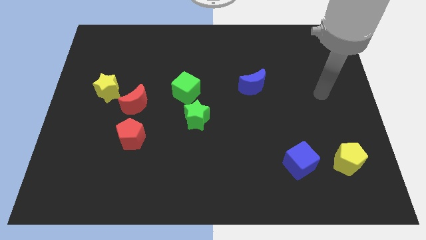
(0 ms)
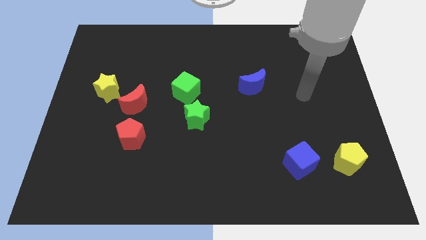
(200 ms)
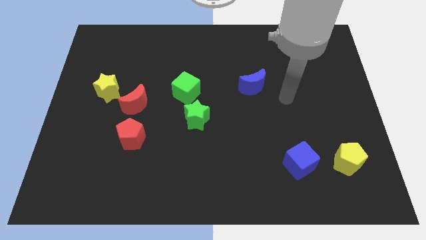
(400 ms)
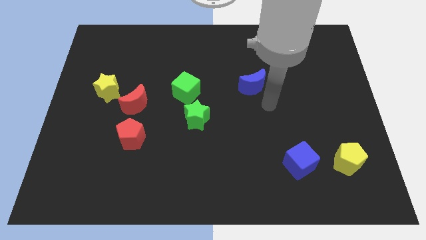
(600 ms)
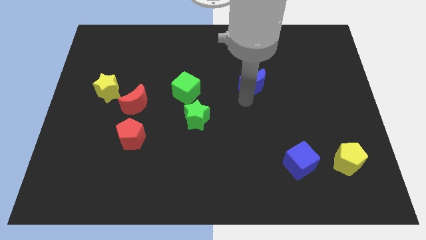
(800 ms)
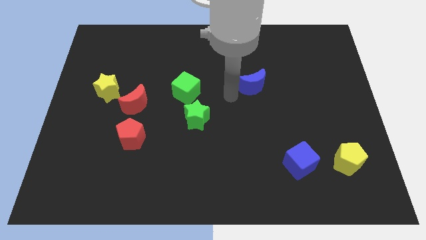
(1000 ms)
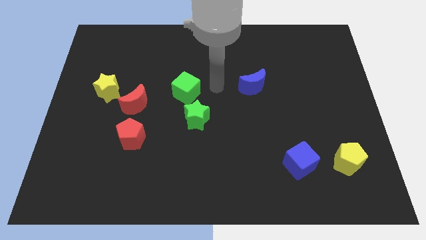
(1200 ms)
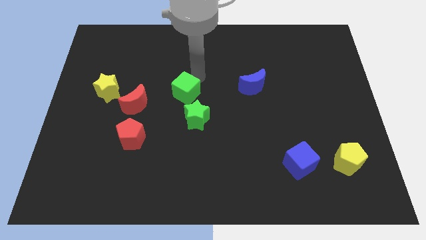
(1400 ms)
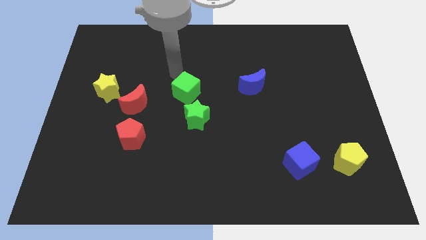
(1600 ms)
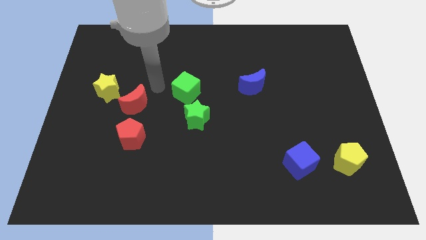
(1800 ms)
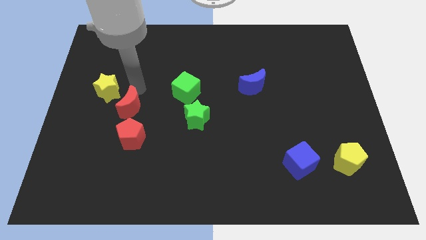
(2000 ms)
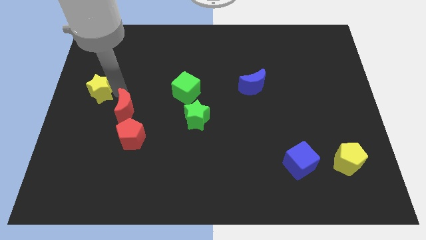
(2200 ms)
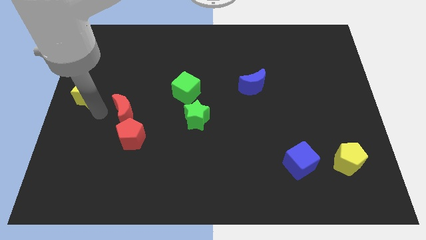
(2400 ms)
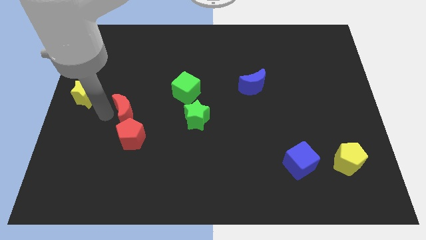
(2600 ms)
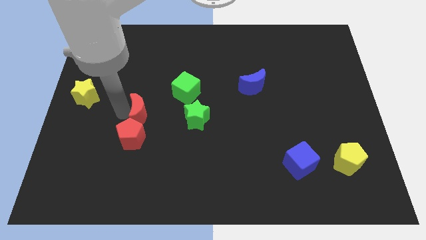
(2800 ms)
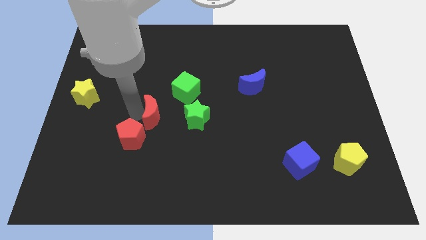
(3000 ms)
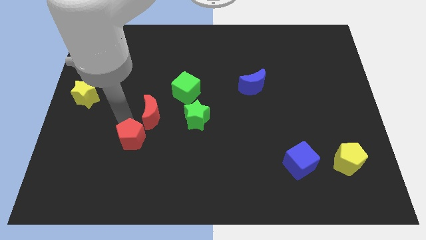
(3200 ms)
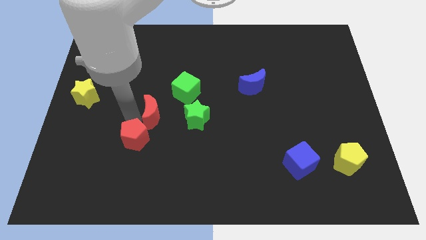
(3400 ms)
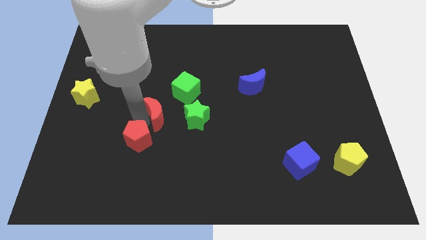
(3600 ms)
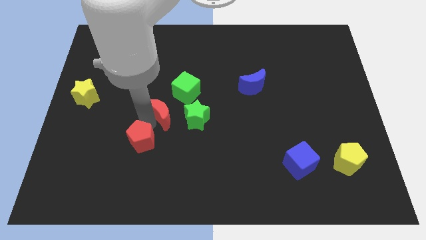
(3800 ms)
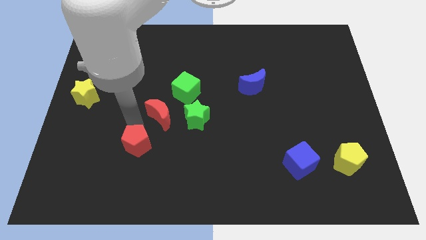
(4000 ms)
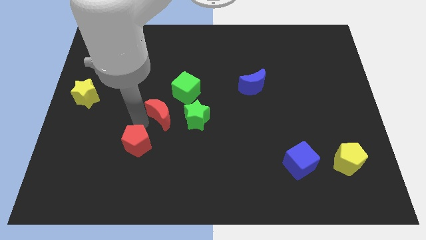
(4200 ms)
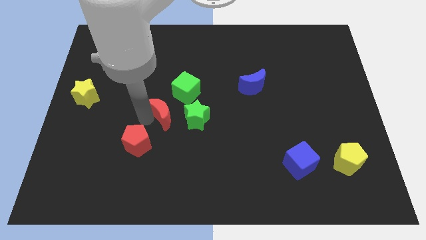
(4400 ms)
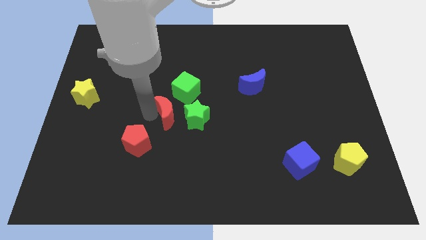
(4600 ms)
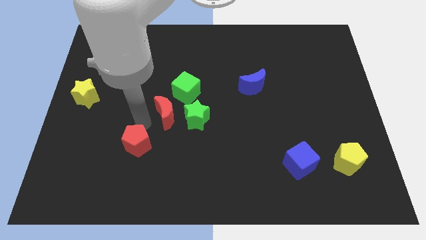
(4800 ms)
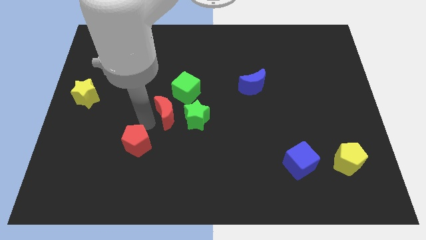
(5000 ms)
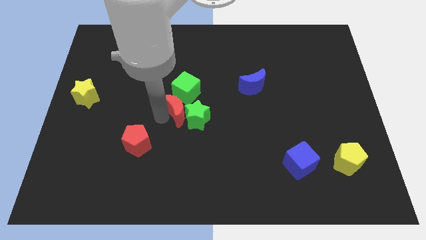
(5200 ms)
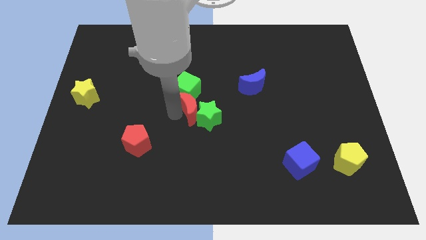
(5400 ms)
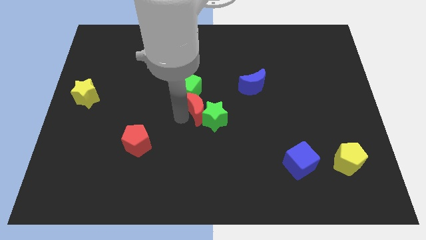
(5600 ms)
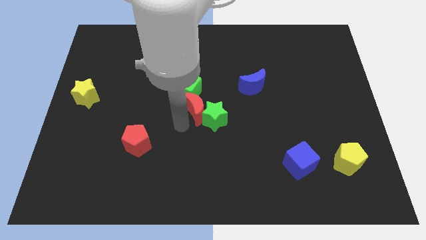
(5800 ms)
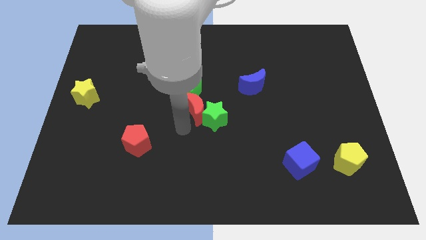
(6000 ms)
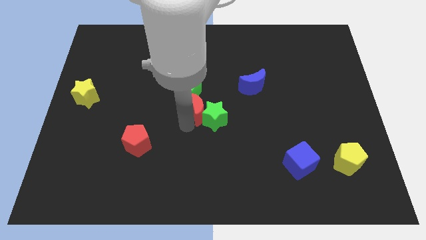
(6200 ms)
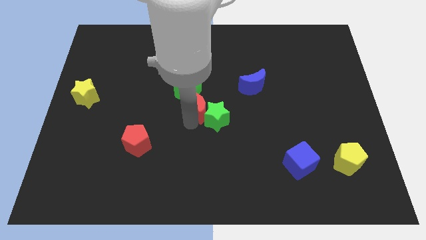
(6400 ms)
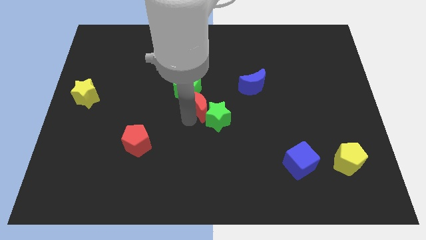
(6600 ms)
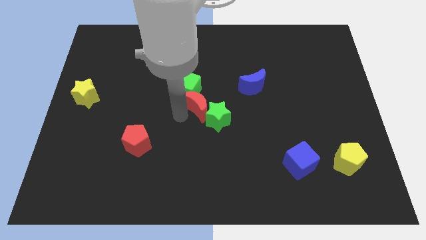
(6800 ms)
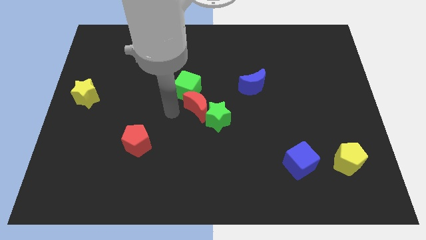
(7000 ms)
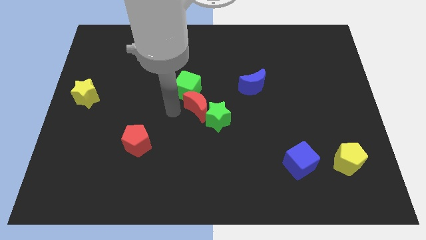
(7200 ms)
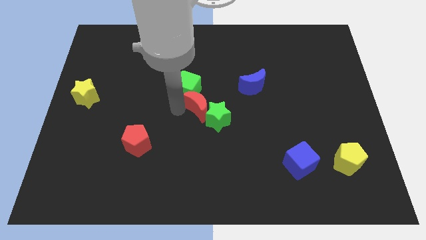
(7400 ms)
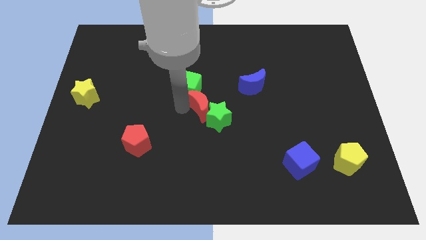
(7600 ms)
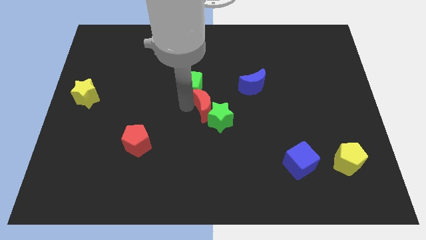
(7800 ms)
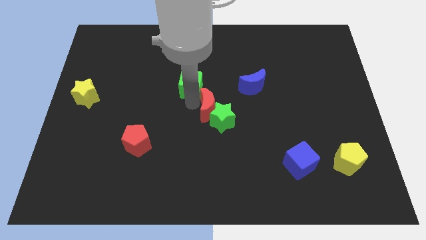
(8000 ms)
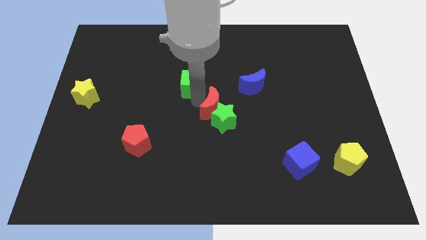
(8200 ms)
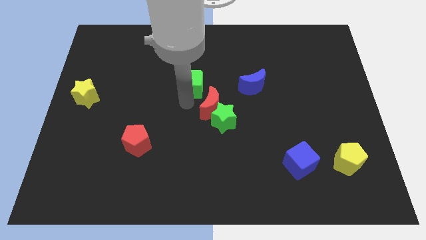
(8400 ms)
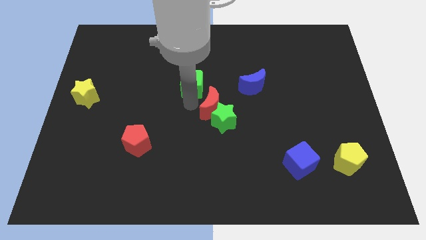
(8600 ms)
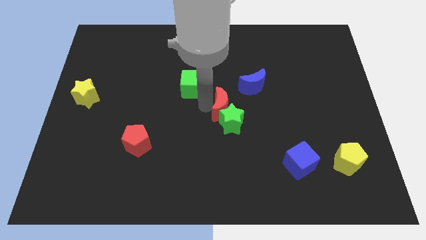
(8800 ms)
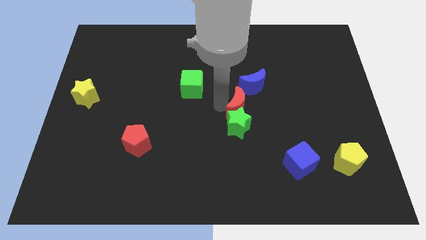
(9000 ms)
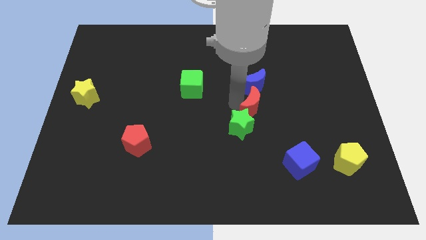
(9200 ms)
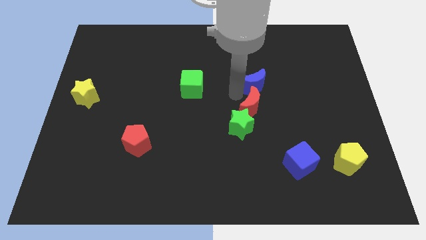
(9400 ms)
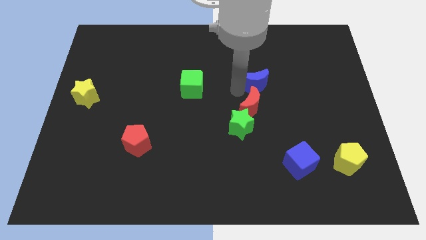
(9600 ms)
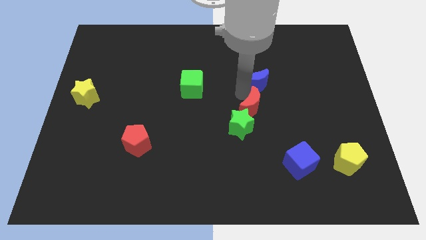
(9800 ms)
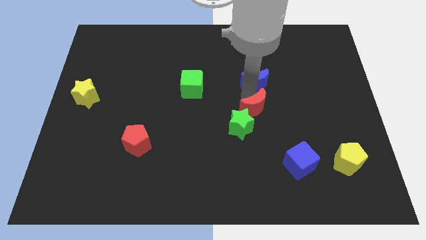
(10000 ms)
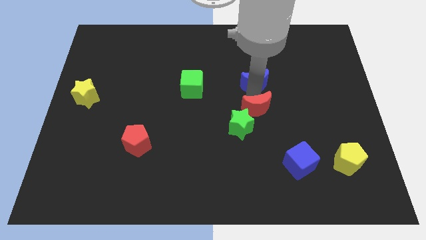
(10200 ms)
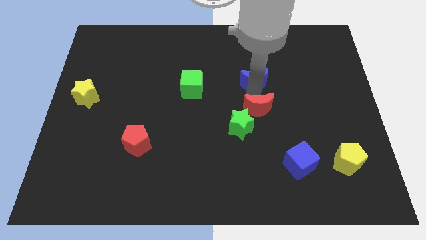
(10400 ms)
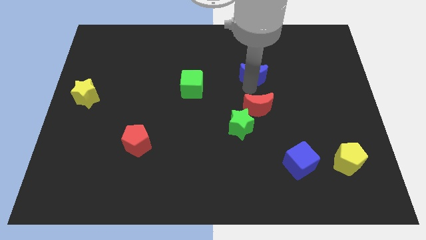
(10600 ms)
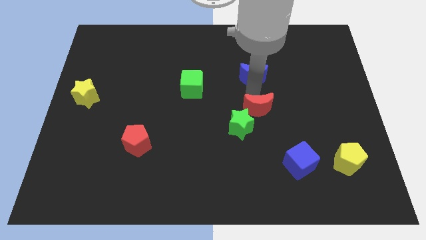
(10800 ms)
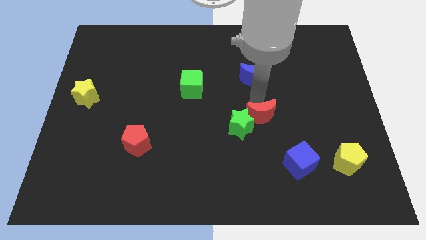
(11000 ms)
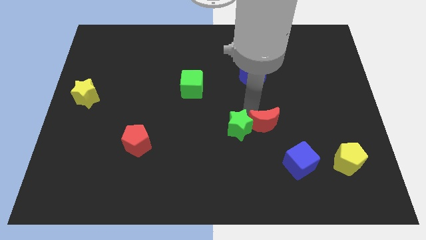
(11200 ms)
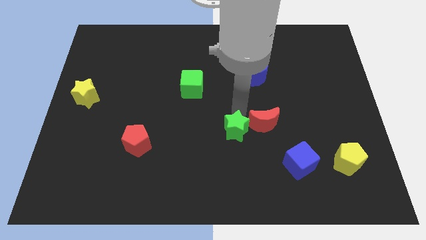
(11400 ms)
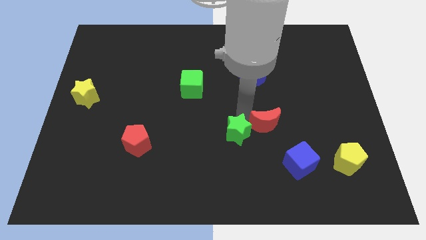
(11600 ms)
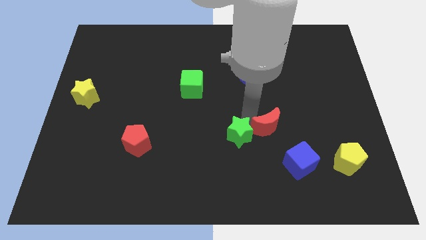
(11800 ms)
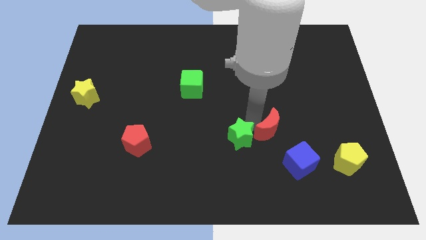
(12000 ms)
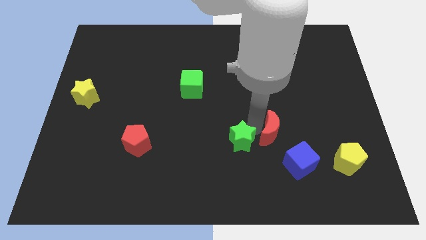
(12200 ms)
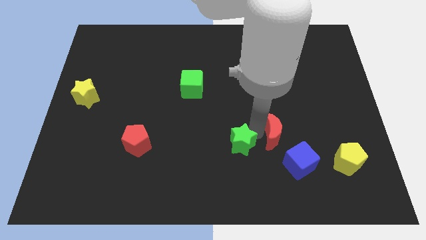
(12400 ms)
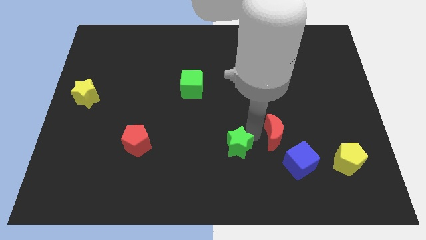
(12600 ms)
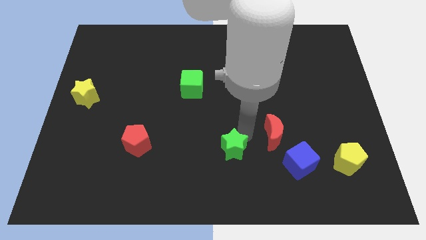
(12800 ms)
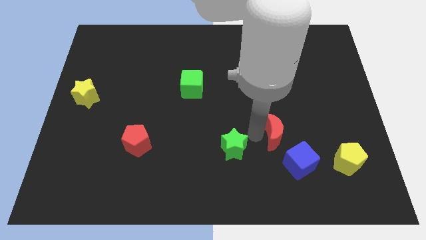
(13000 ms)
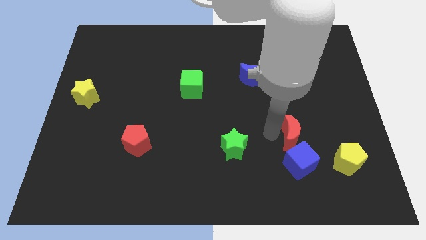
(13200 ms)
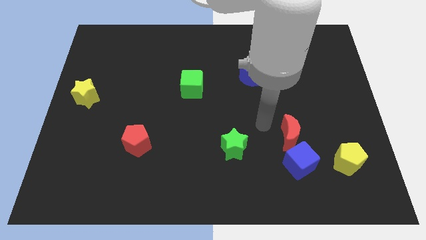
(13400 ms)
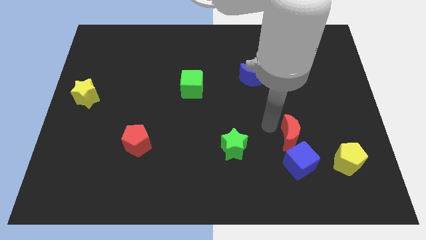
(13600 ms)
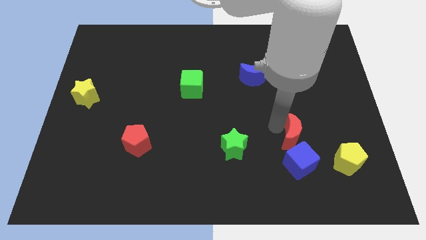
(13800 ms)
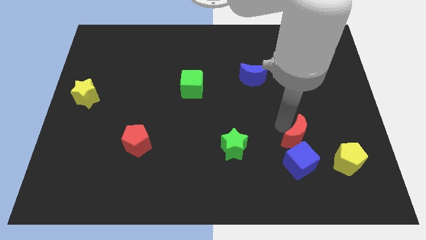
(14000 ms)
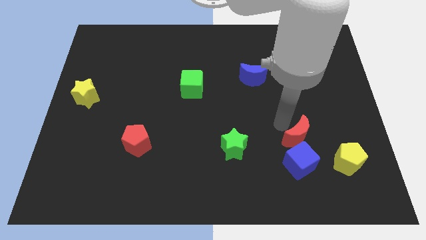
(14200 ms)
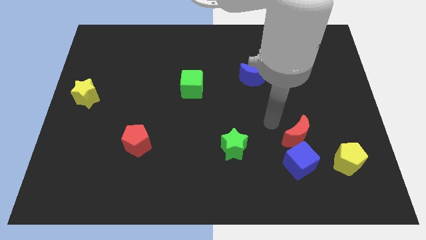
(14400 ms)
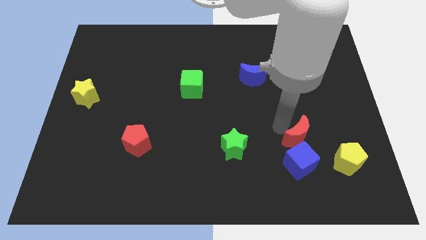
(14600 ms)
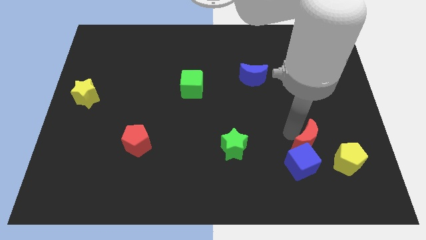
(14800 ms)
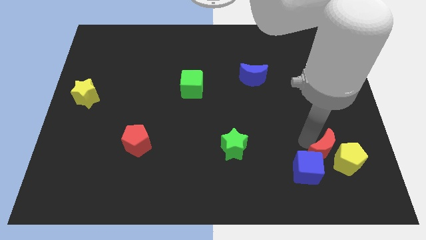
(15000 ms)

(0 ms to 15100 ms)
put the red moon towards the yellow pentagon
